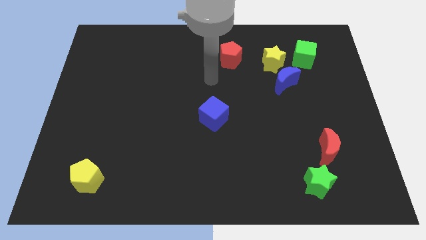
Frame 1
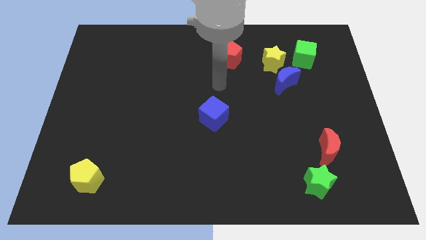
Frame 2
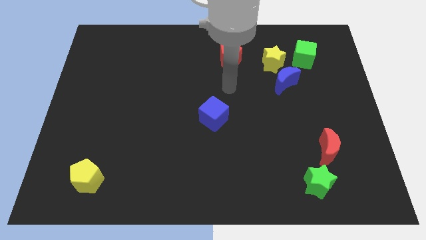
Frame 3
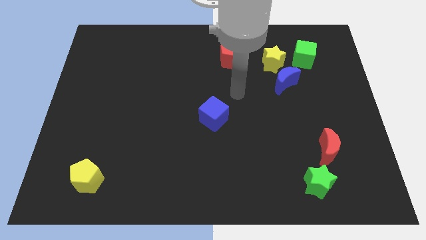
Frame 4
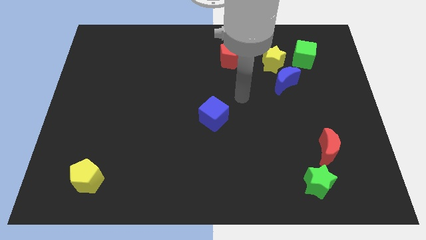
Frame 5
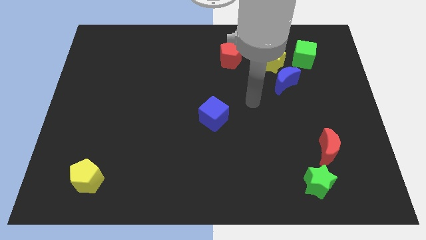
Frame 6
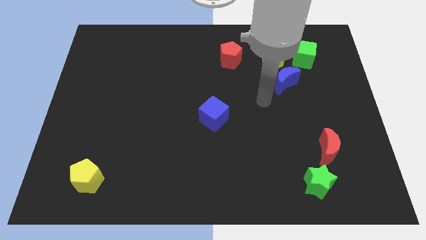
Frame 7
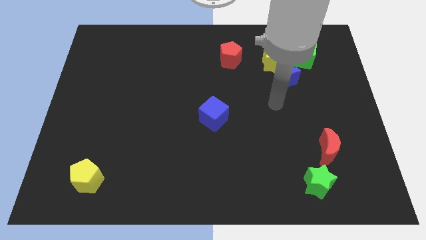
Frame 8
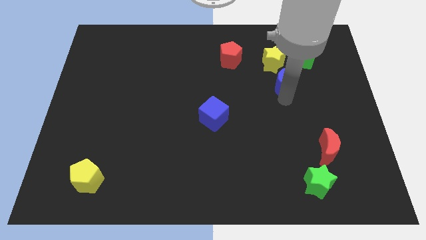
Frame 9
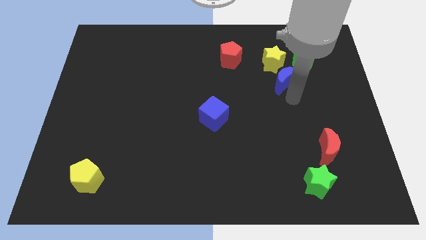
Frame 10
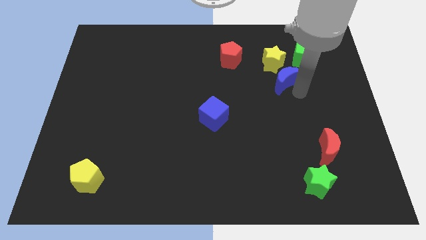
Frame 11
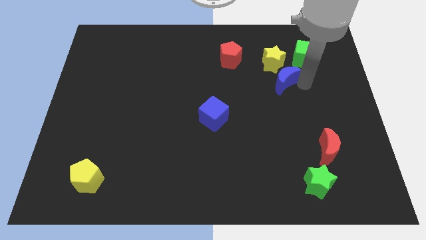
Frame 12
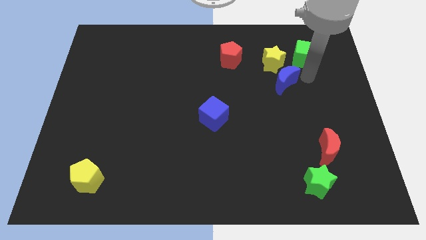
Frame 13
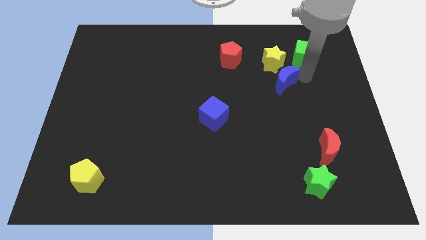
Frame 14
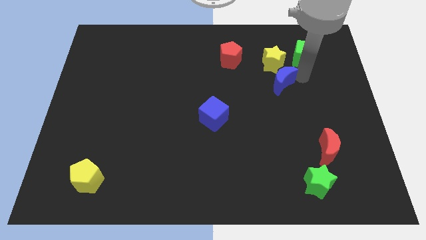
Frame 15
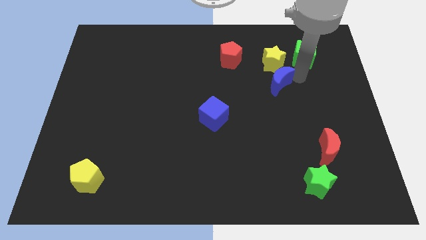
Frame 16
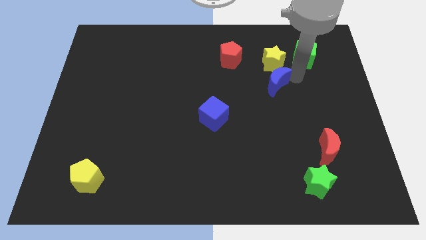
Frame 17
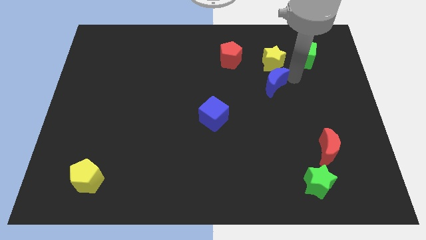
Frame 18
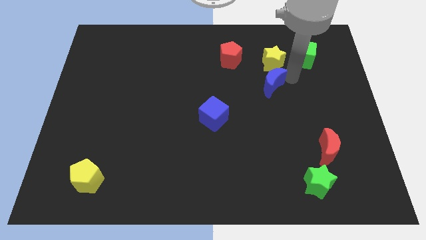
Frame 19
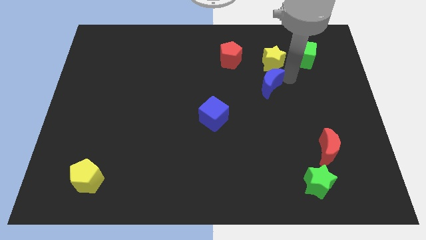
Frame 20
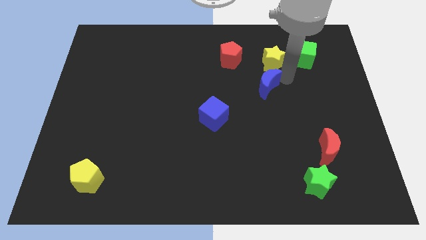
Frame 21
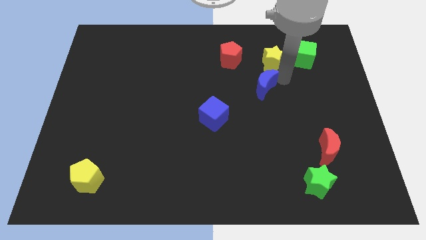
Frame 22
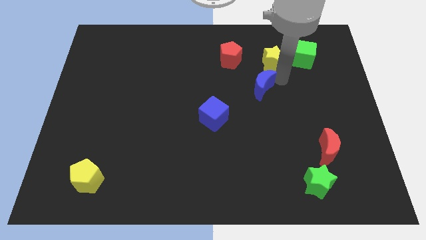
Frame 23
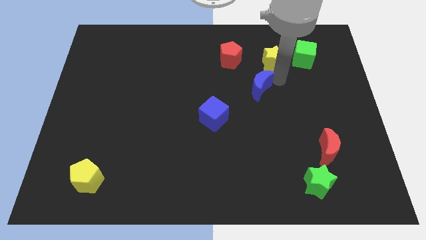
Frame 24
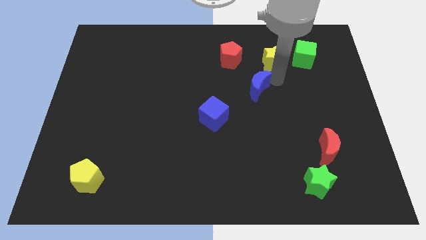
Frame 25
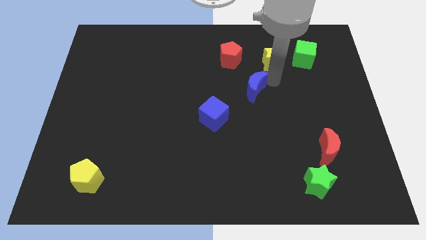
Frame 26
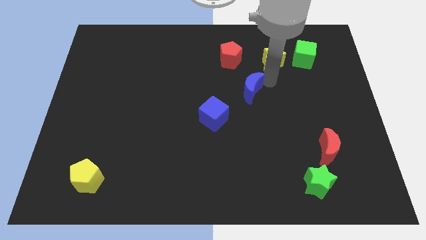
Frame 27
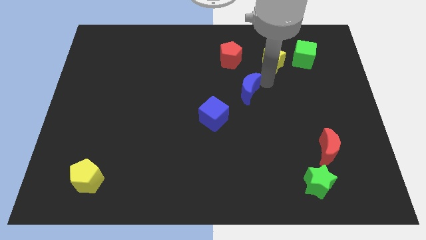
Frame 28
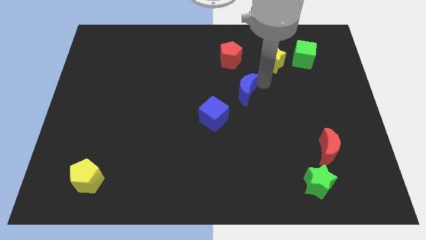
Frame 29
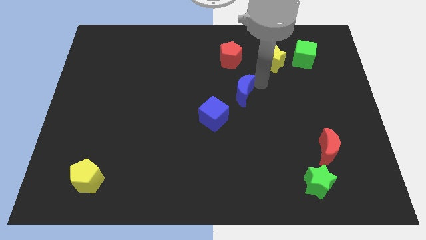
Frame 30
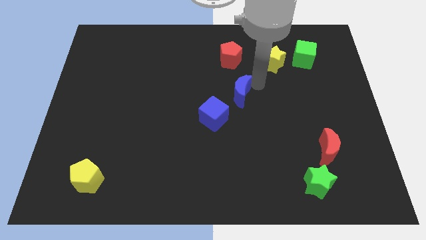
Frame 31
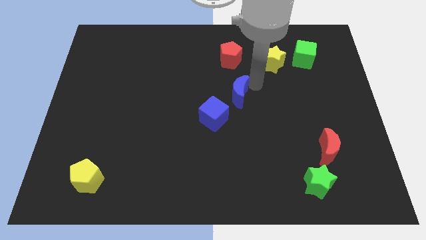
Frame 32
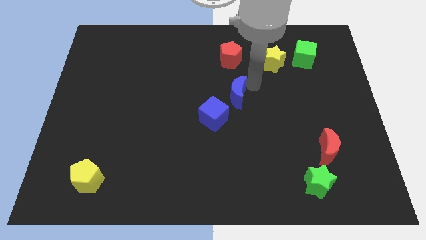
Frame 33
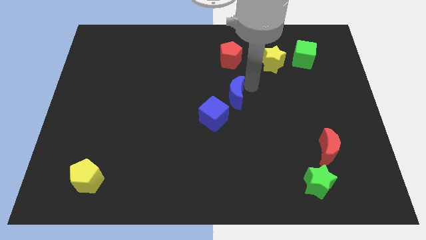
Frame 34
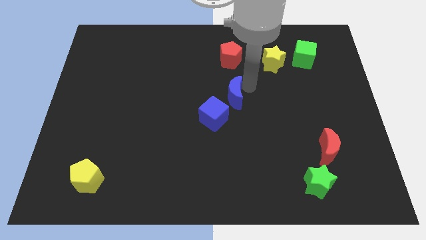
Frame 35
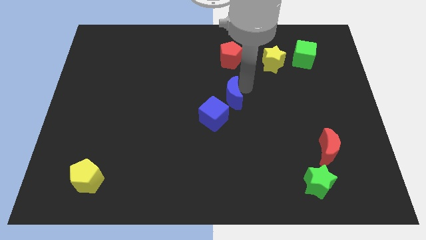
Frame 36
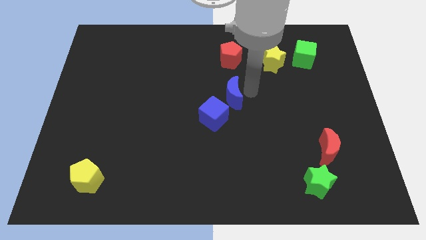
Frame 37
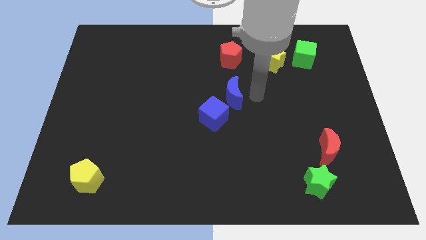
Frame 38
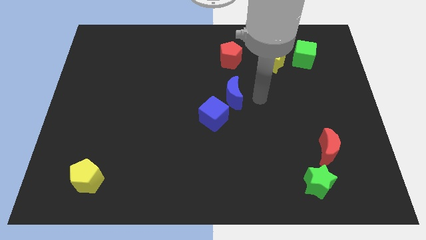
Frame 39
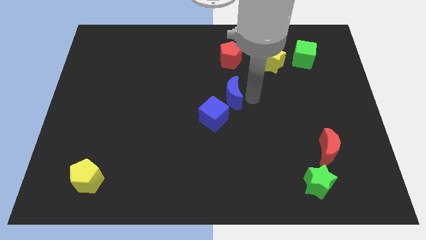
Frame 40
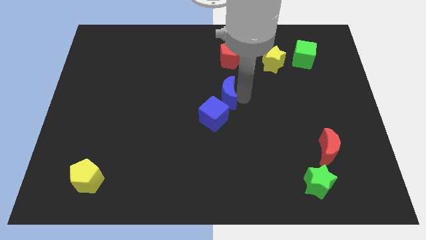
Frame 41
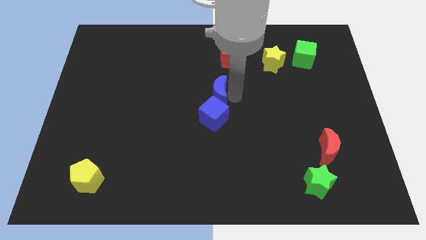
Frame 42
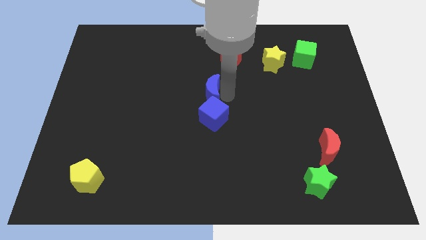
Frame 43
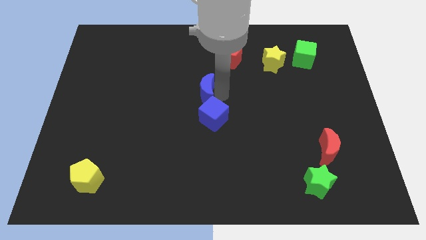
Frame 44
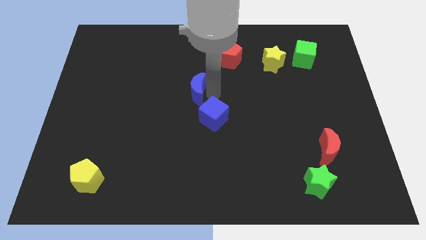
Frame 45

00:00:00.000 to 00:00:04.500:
slide the blue moon left

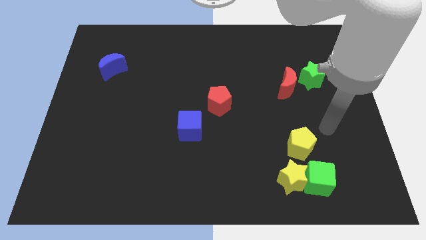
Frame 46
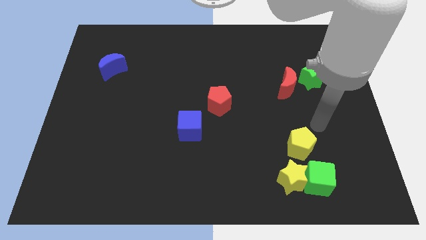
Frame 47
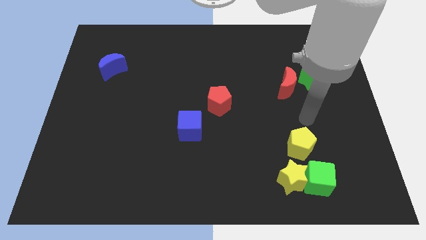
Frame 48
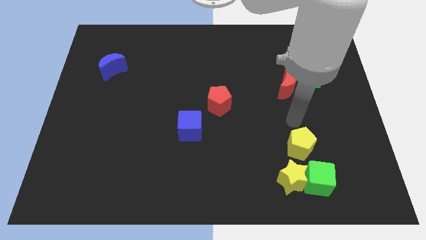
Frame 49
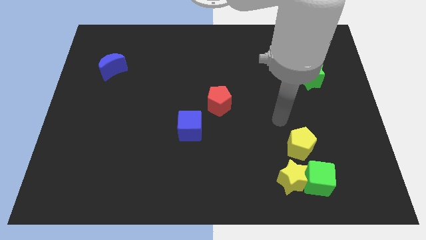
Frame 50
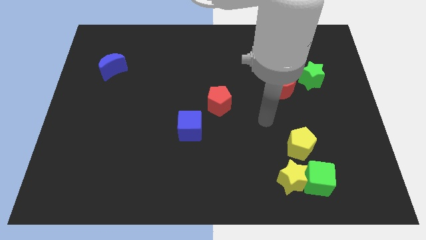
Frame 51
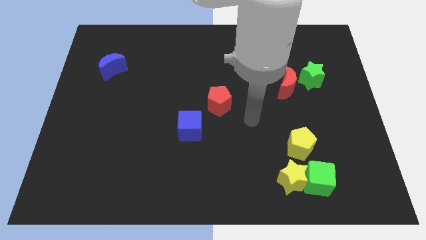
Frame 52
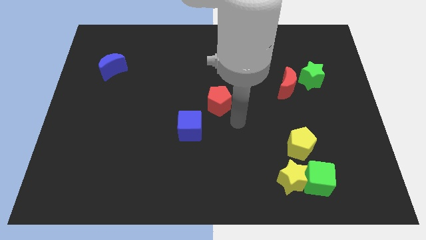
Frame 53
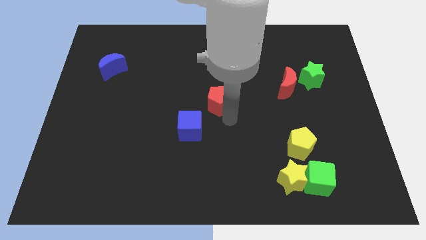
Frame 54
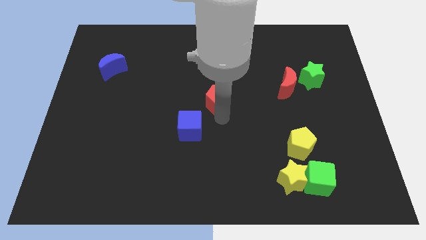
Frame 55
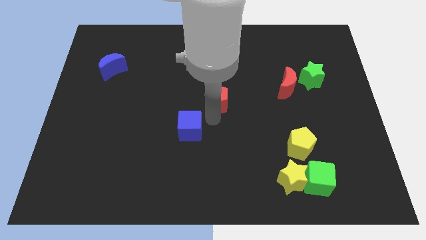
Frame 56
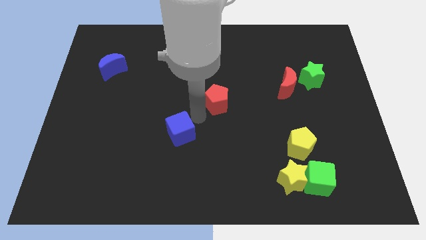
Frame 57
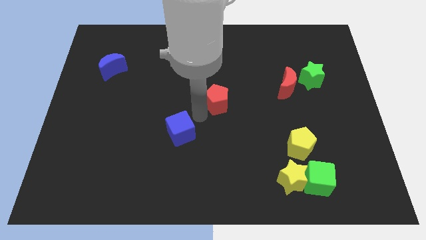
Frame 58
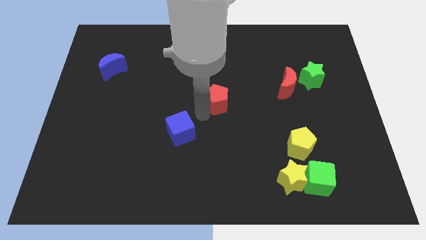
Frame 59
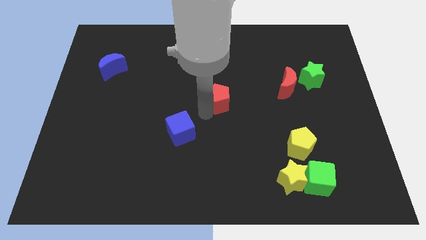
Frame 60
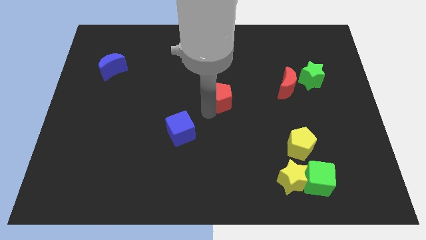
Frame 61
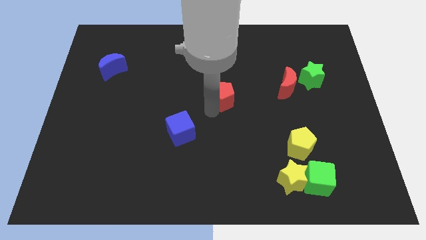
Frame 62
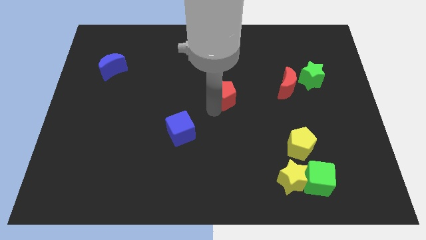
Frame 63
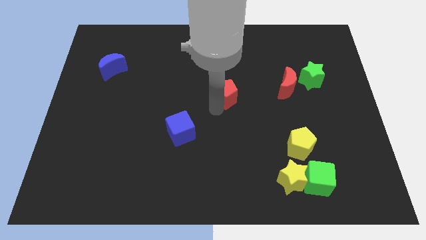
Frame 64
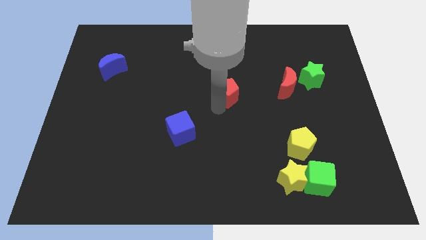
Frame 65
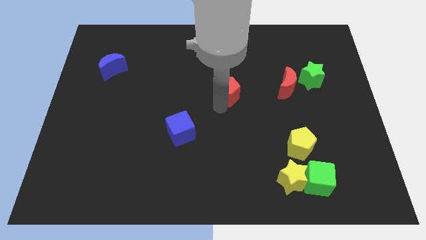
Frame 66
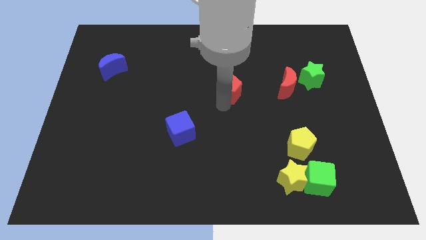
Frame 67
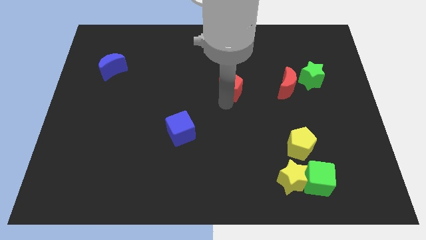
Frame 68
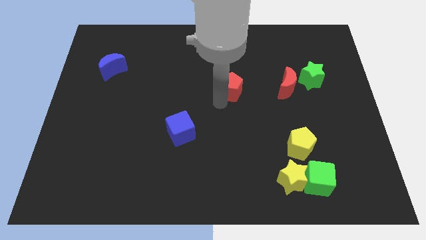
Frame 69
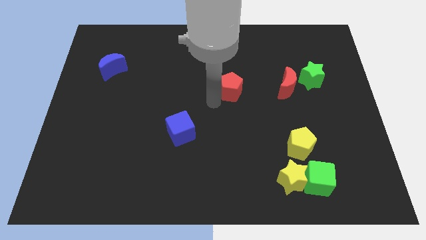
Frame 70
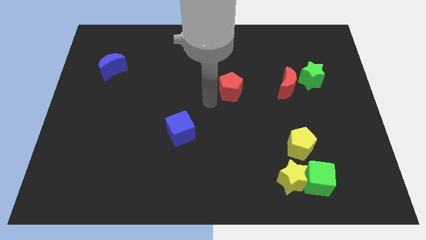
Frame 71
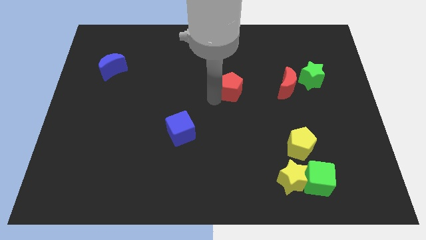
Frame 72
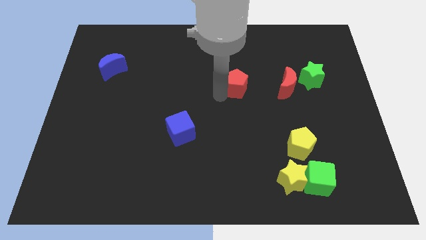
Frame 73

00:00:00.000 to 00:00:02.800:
move the red pentagon upwards and then to the right a little

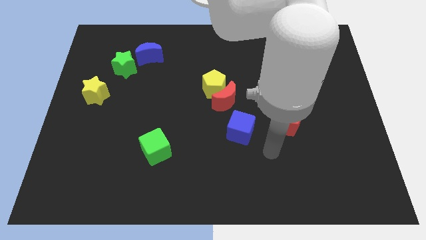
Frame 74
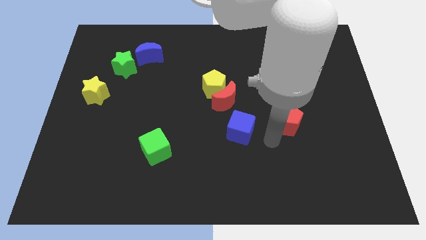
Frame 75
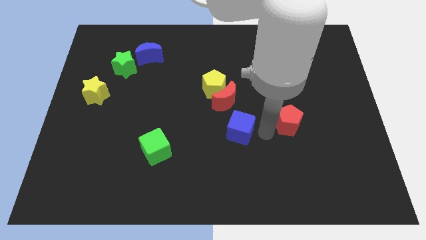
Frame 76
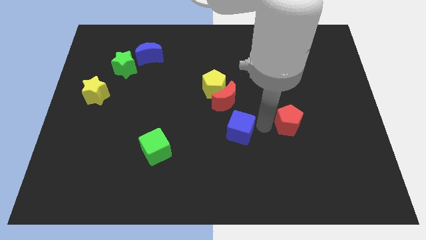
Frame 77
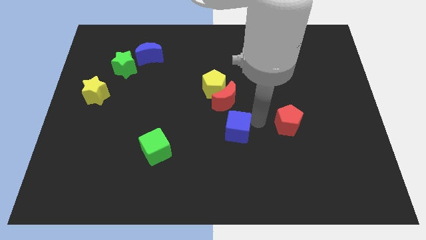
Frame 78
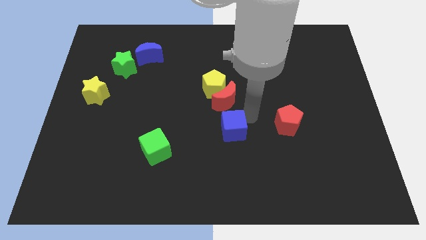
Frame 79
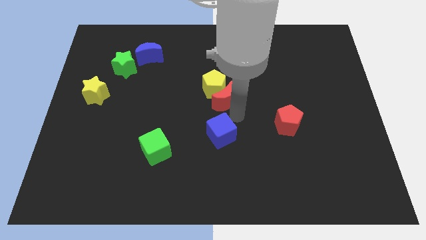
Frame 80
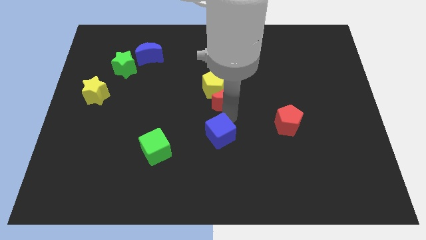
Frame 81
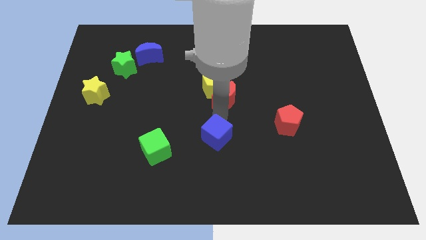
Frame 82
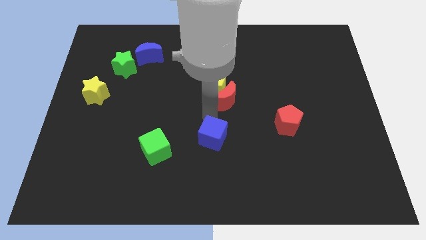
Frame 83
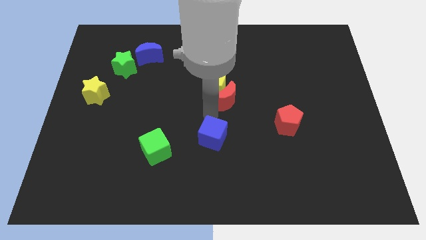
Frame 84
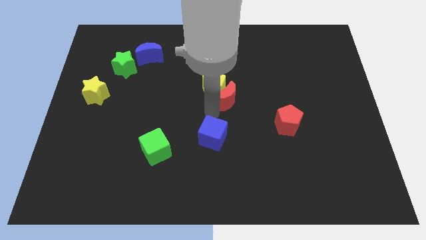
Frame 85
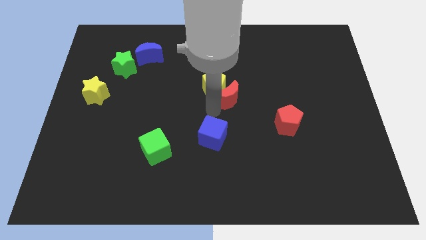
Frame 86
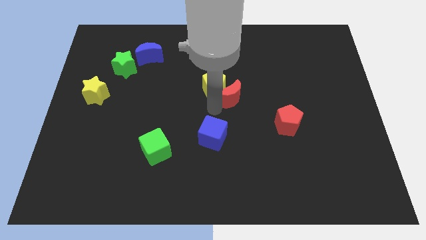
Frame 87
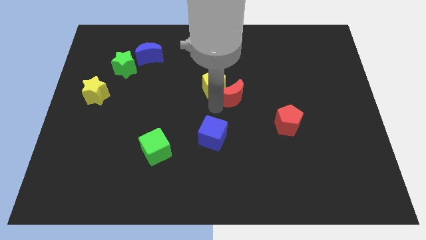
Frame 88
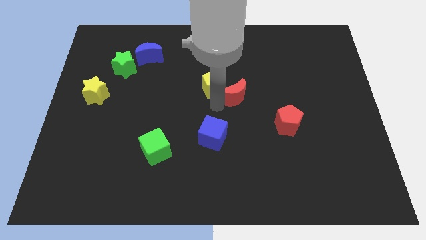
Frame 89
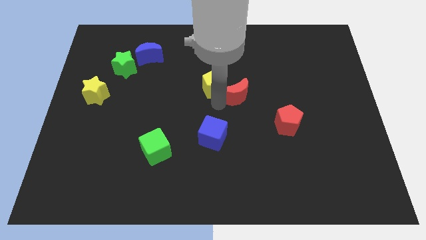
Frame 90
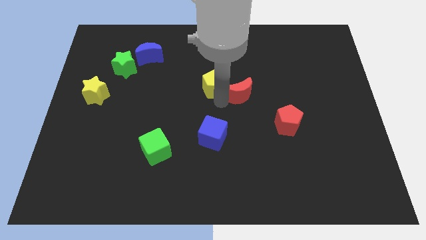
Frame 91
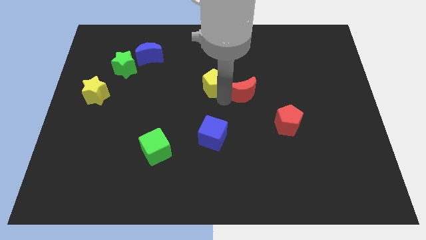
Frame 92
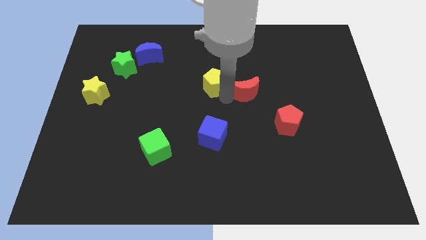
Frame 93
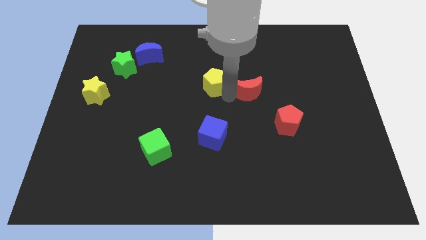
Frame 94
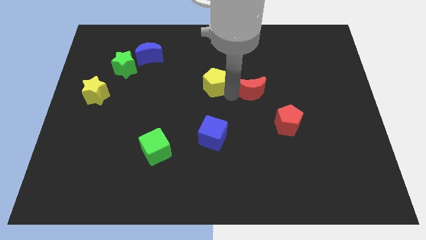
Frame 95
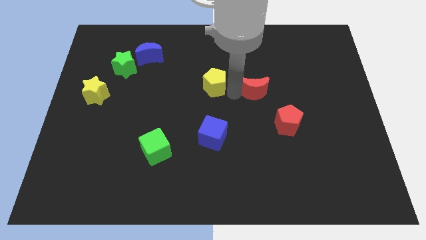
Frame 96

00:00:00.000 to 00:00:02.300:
push the red moon upwards and to the right diagonally a little bit
